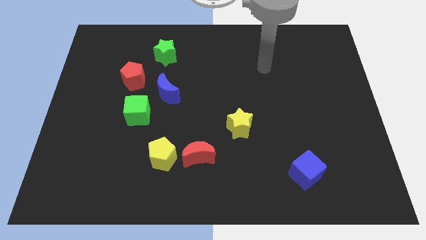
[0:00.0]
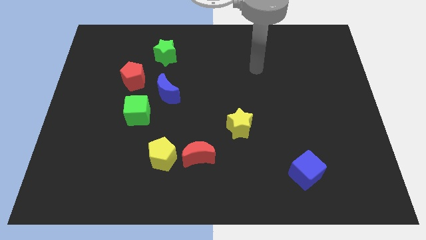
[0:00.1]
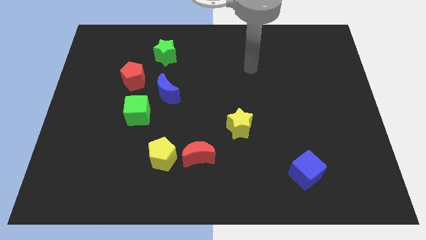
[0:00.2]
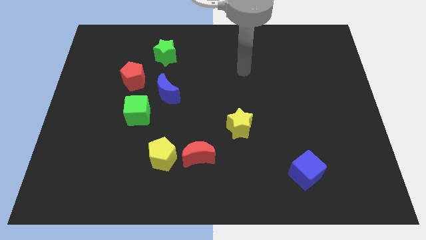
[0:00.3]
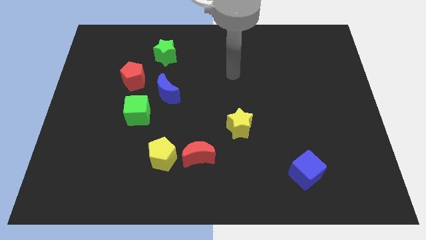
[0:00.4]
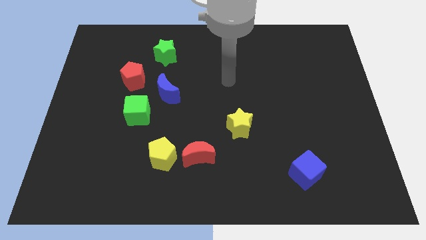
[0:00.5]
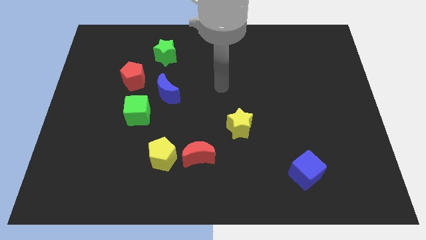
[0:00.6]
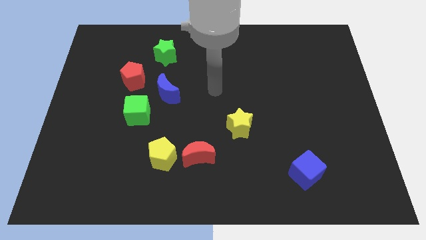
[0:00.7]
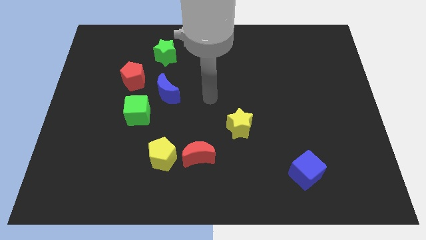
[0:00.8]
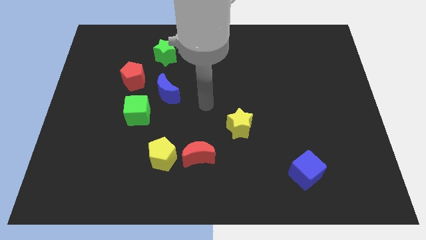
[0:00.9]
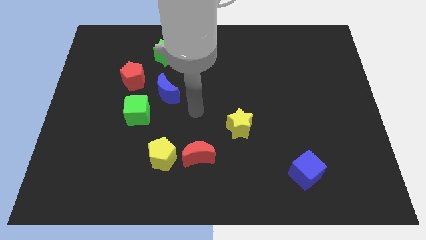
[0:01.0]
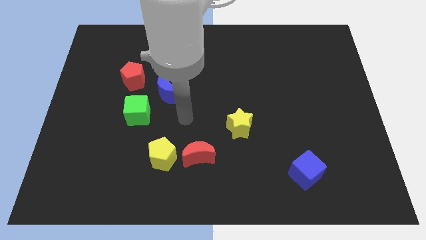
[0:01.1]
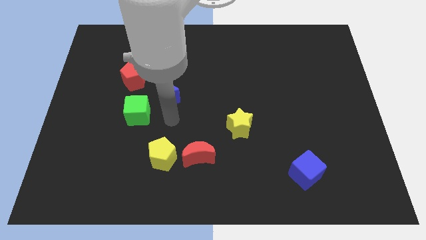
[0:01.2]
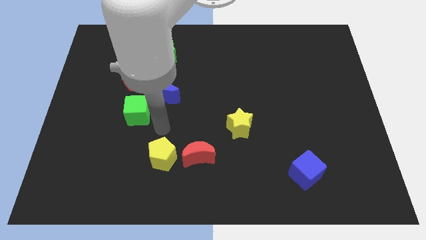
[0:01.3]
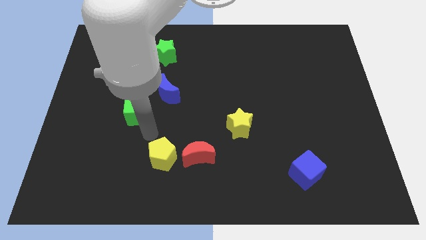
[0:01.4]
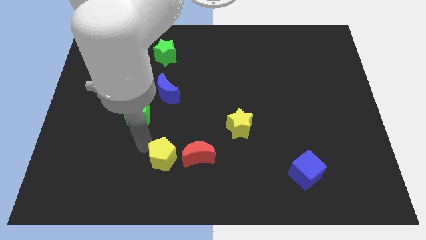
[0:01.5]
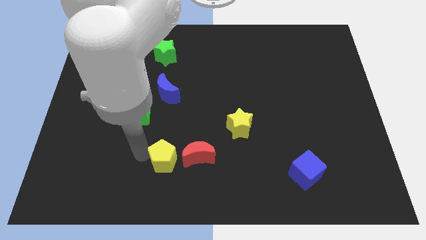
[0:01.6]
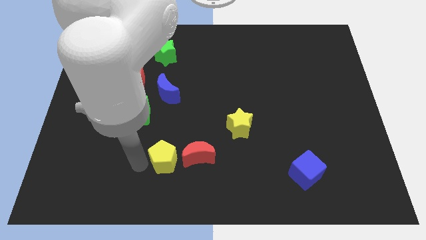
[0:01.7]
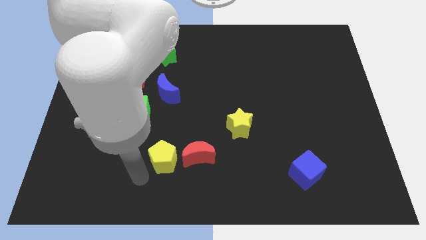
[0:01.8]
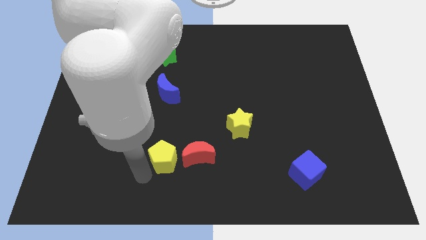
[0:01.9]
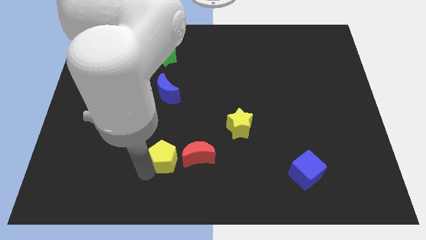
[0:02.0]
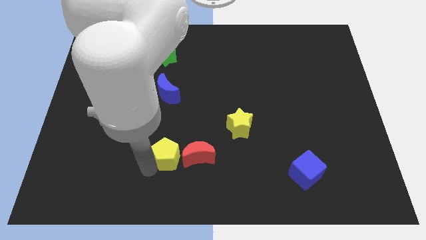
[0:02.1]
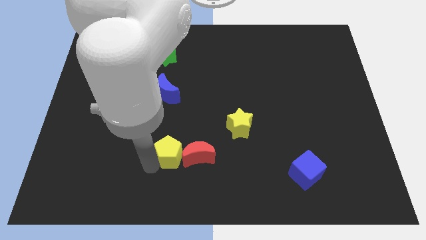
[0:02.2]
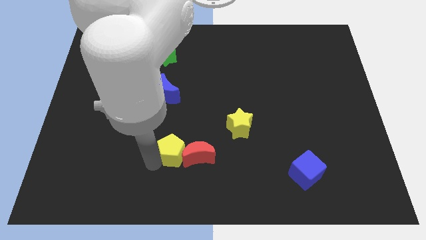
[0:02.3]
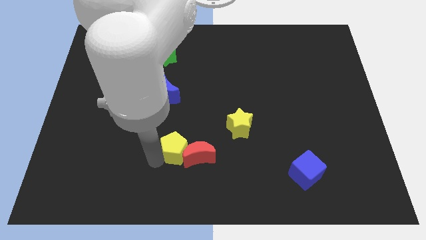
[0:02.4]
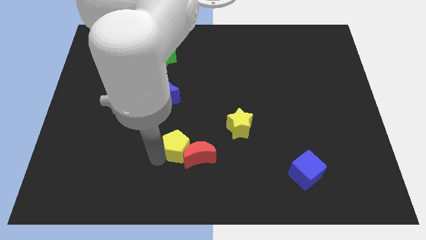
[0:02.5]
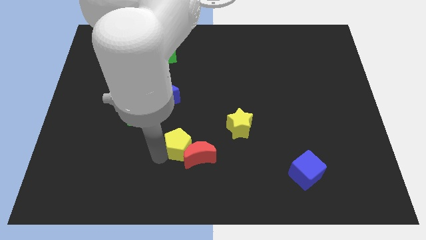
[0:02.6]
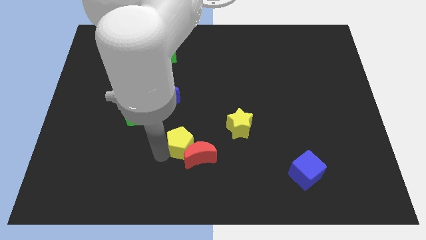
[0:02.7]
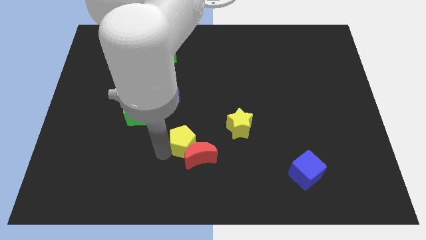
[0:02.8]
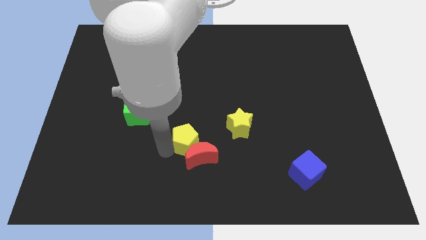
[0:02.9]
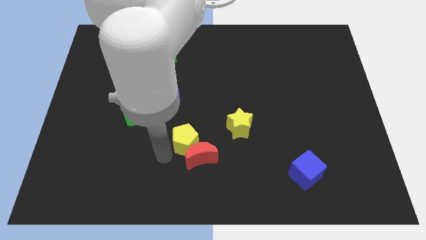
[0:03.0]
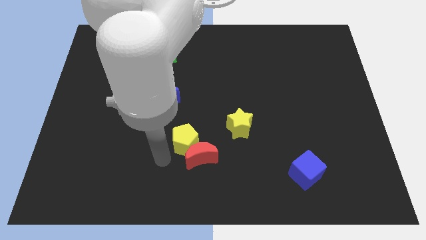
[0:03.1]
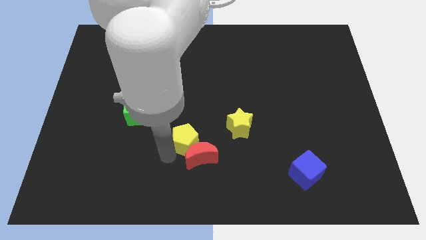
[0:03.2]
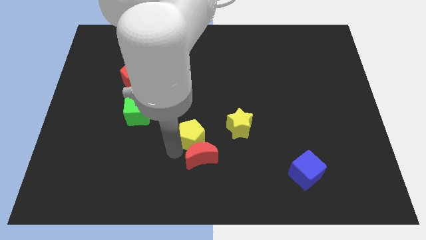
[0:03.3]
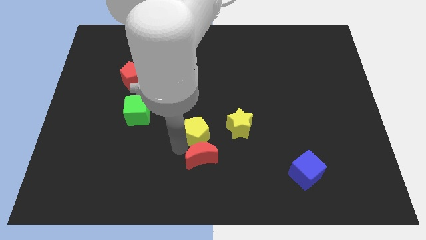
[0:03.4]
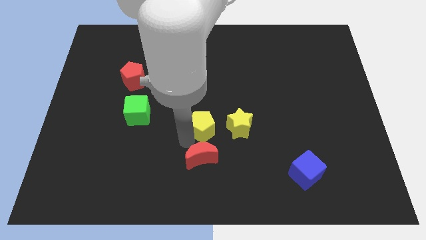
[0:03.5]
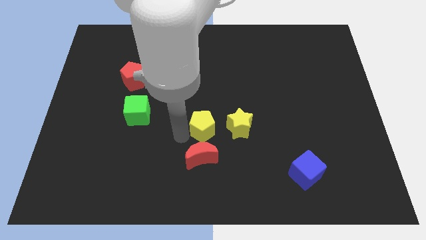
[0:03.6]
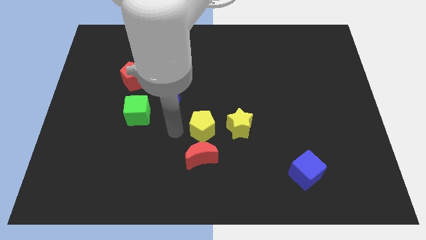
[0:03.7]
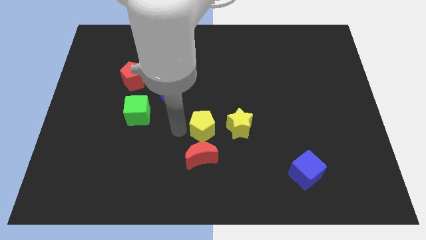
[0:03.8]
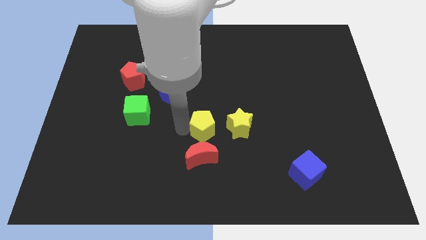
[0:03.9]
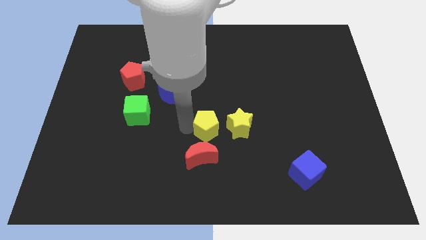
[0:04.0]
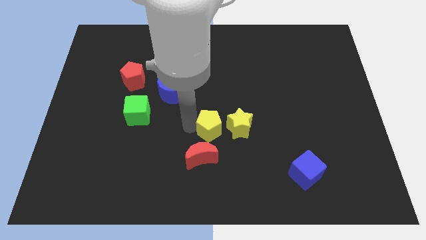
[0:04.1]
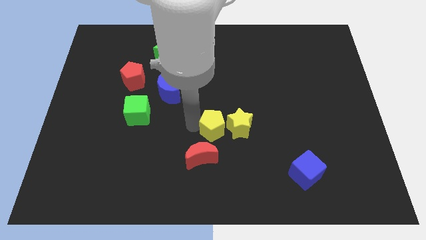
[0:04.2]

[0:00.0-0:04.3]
move the yellow pentagon to the yellow star

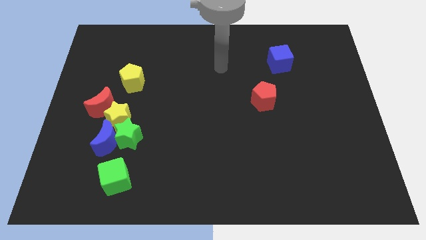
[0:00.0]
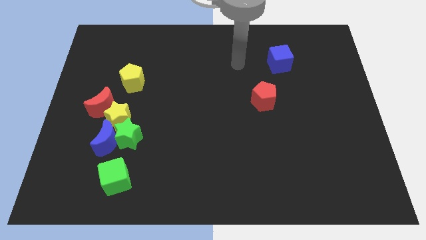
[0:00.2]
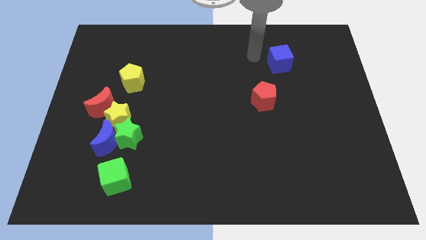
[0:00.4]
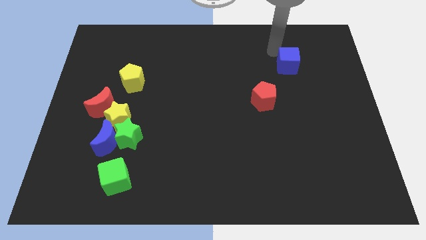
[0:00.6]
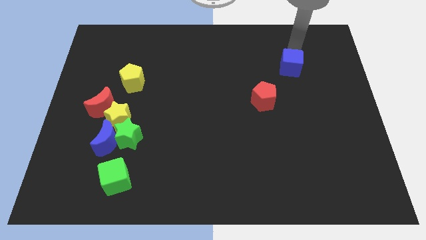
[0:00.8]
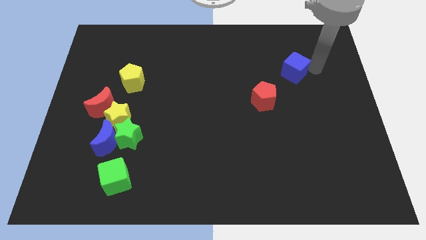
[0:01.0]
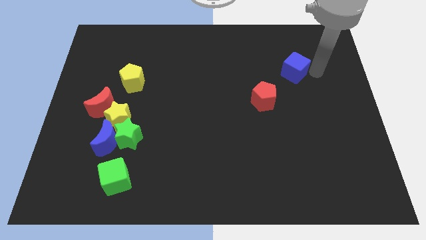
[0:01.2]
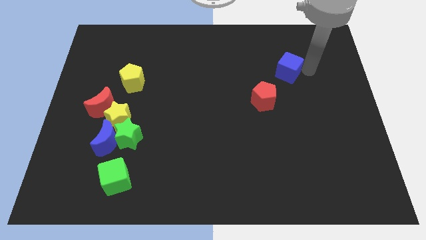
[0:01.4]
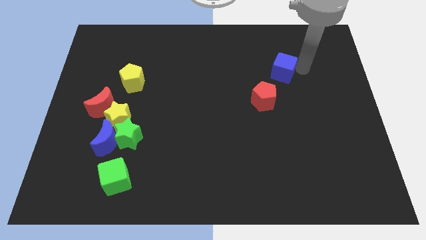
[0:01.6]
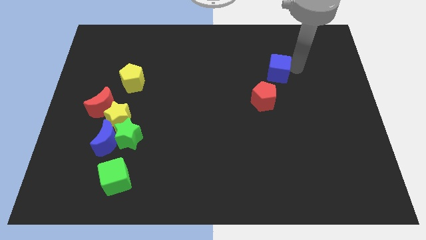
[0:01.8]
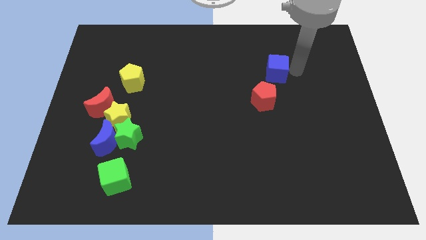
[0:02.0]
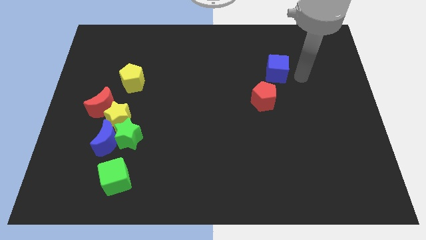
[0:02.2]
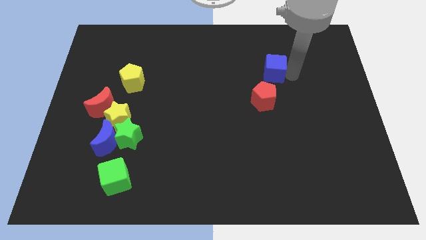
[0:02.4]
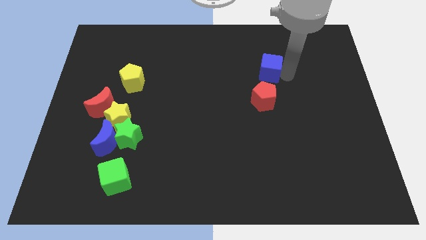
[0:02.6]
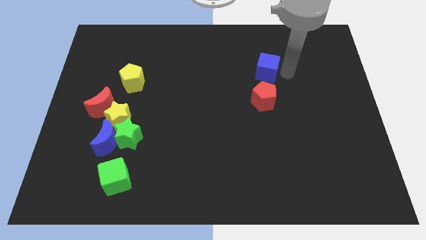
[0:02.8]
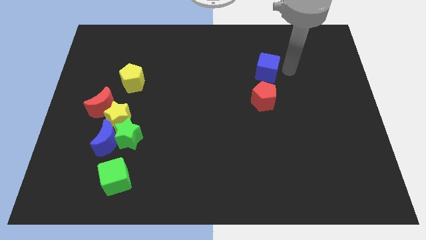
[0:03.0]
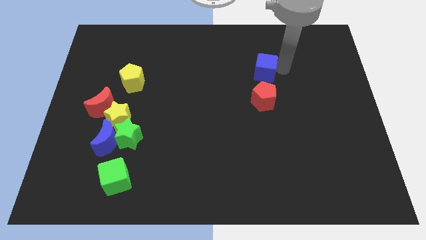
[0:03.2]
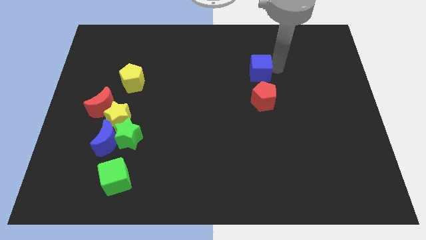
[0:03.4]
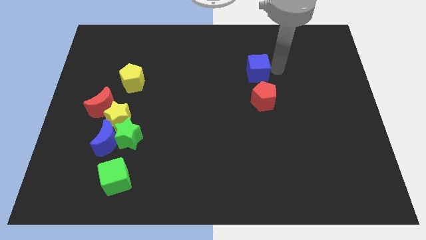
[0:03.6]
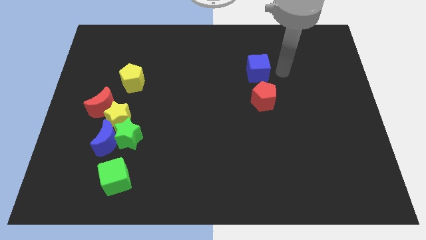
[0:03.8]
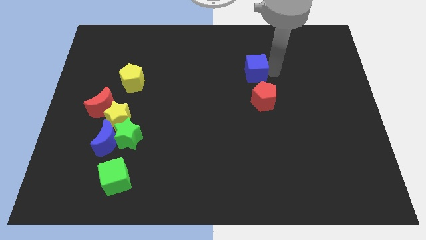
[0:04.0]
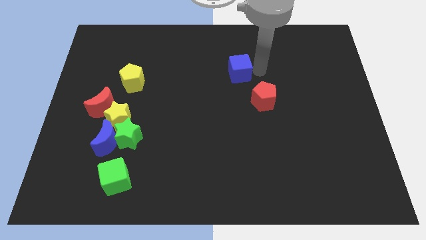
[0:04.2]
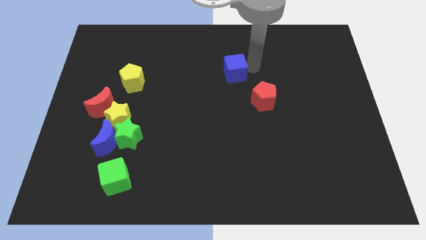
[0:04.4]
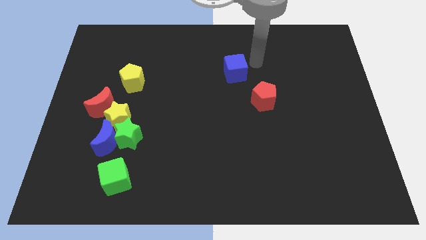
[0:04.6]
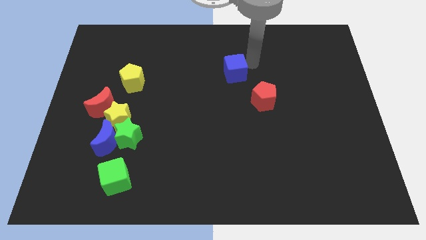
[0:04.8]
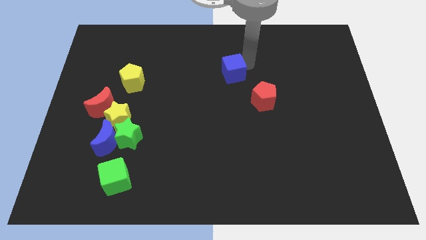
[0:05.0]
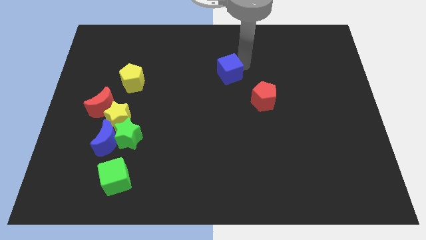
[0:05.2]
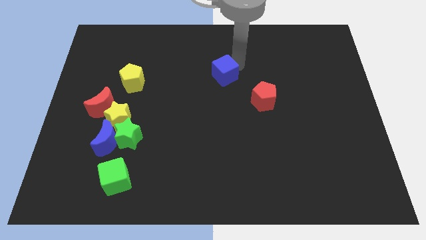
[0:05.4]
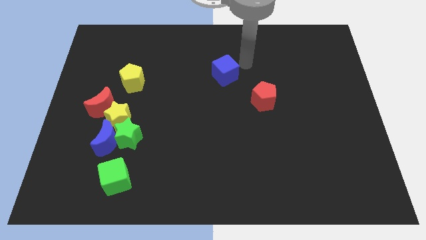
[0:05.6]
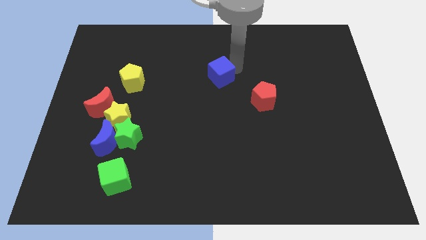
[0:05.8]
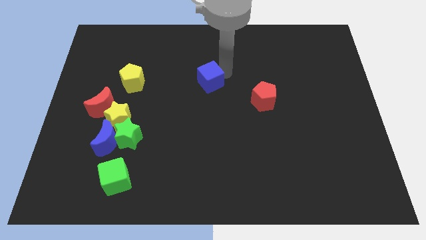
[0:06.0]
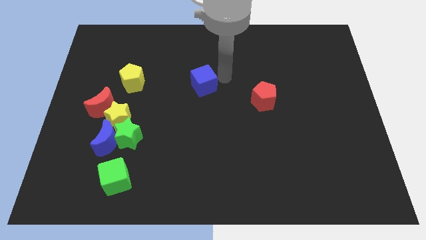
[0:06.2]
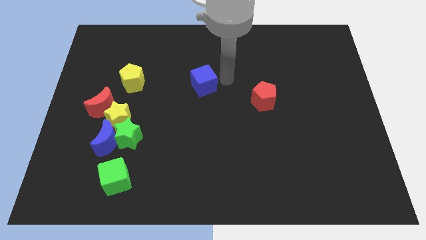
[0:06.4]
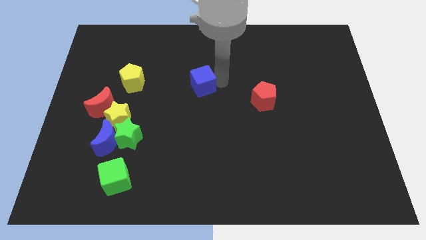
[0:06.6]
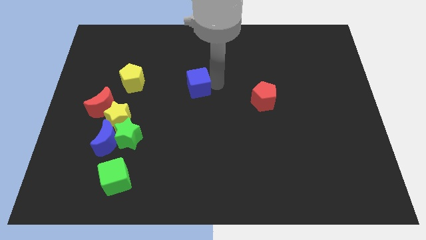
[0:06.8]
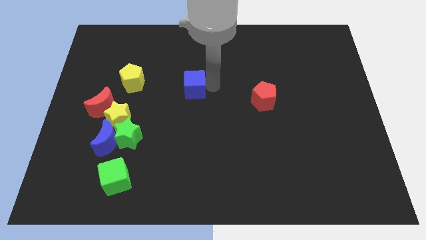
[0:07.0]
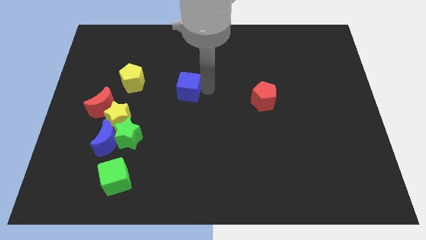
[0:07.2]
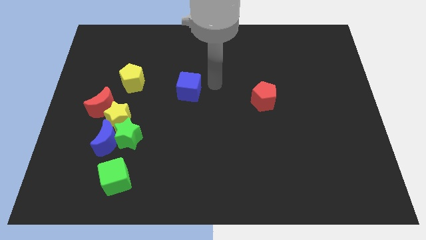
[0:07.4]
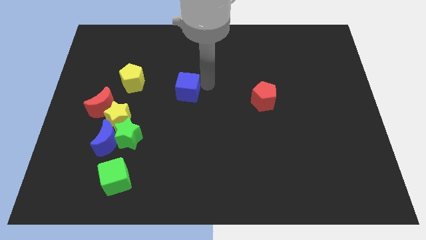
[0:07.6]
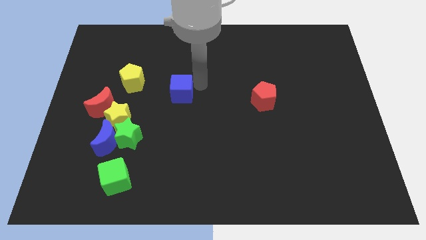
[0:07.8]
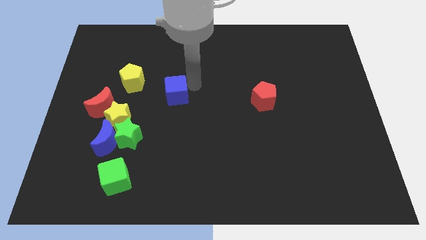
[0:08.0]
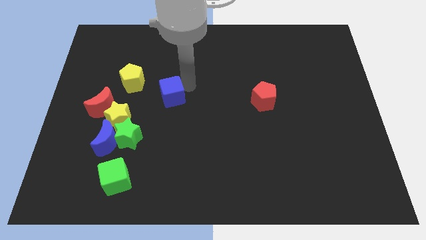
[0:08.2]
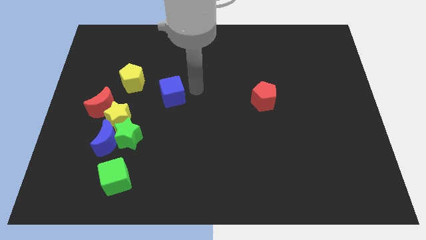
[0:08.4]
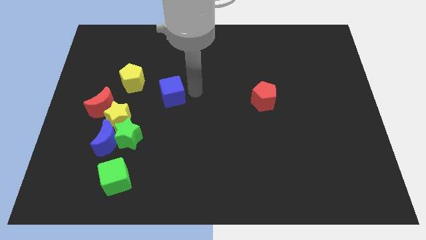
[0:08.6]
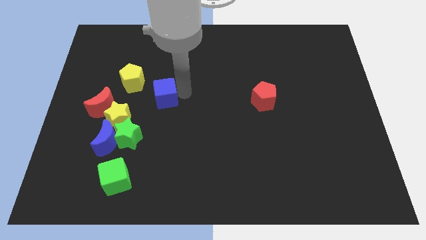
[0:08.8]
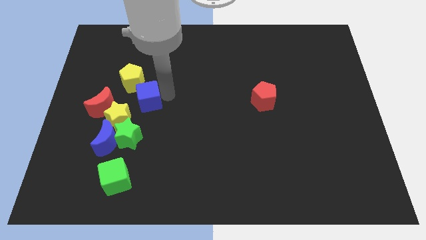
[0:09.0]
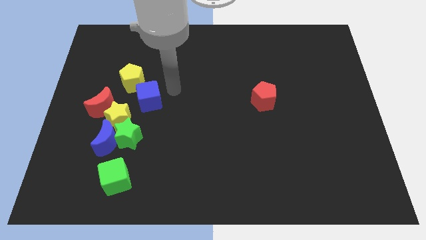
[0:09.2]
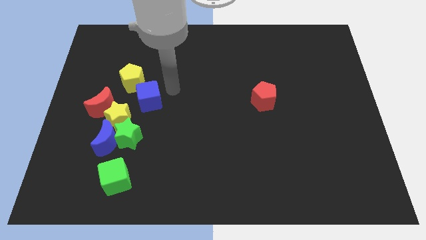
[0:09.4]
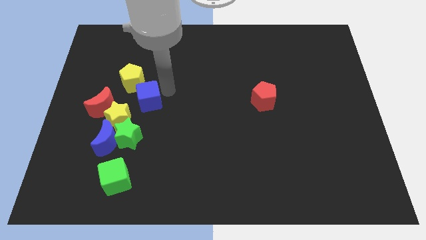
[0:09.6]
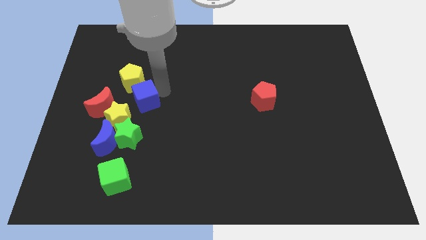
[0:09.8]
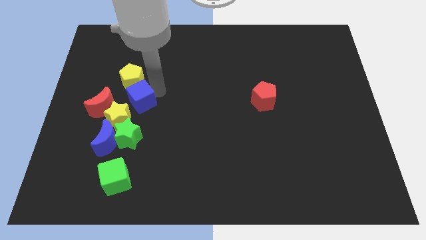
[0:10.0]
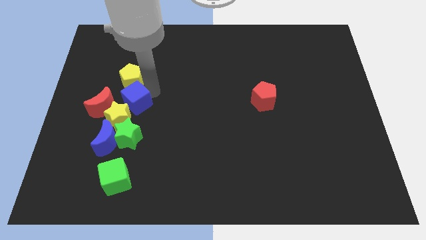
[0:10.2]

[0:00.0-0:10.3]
slide the blue cube to the yellow star
